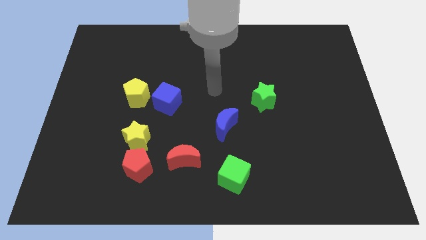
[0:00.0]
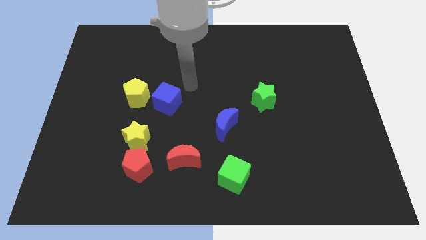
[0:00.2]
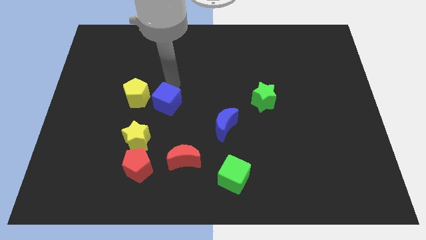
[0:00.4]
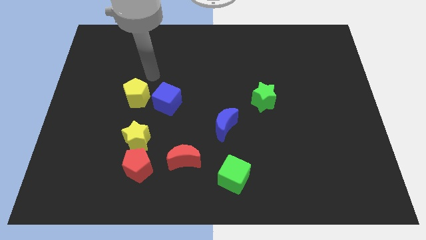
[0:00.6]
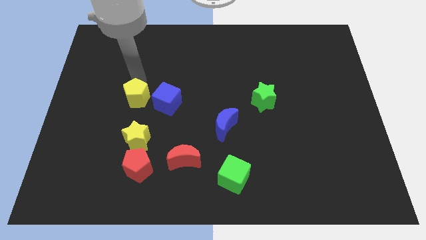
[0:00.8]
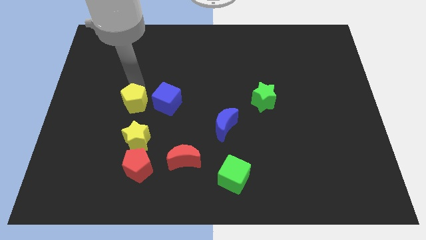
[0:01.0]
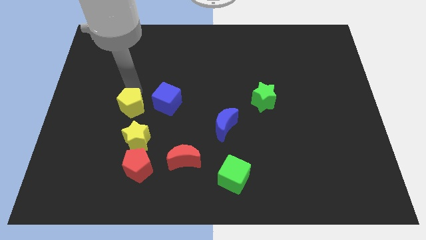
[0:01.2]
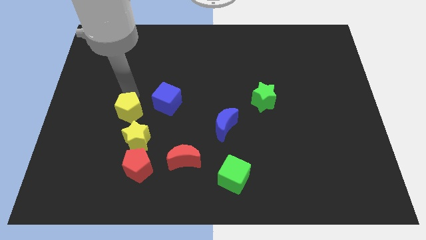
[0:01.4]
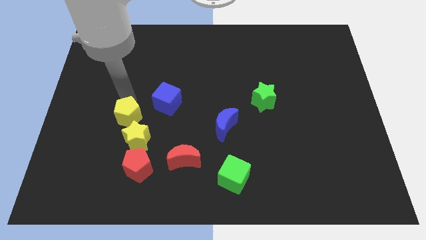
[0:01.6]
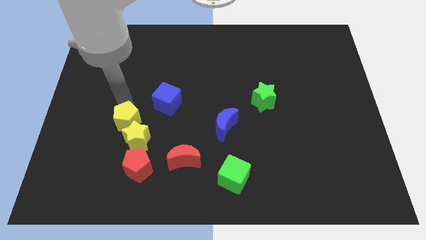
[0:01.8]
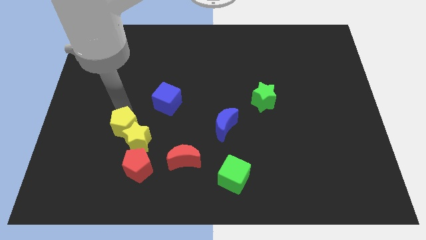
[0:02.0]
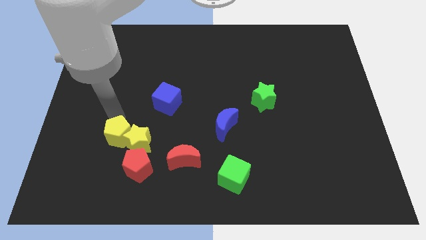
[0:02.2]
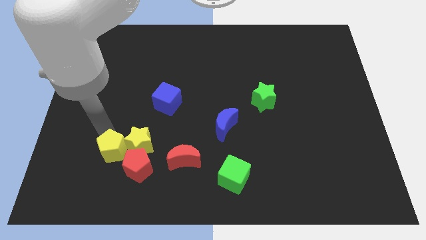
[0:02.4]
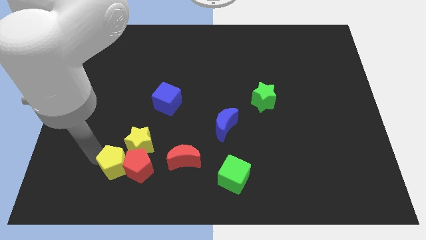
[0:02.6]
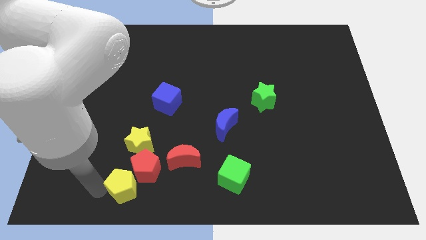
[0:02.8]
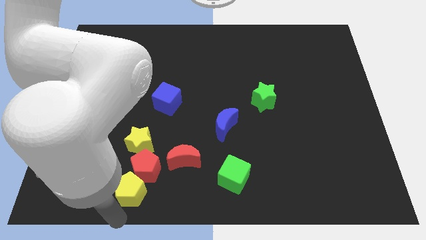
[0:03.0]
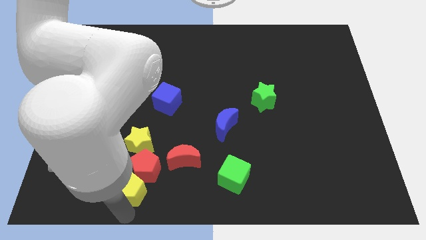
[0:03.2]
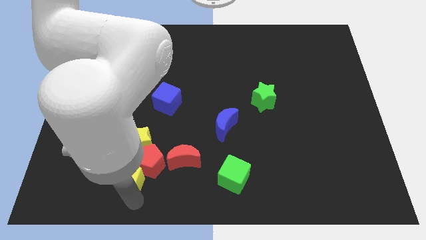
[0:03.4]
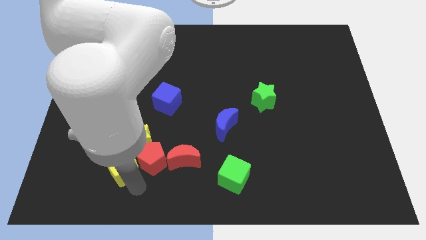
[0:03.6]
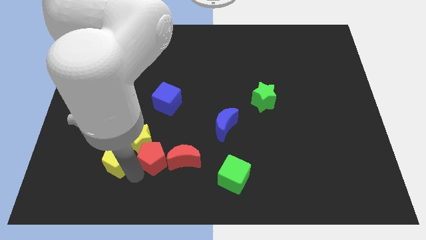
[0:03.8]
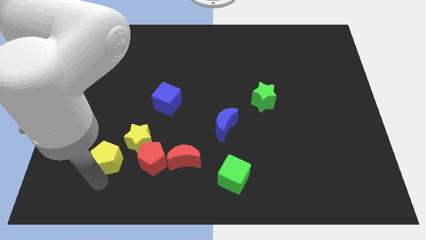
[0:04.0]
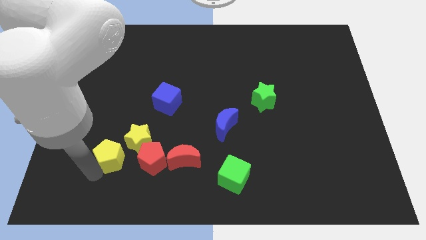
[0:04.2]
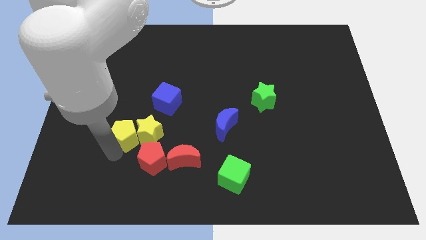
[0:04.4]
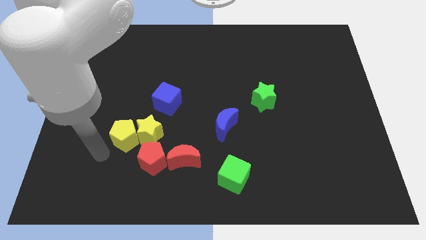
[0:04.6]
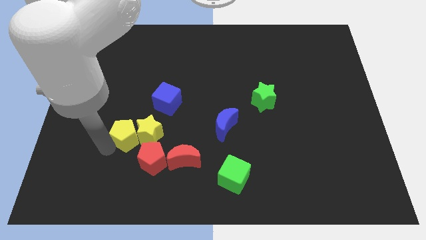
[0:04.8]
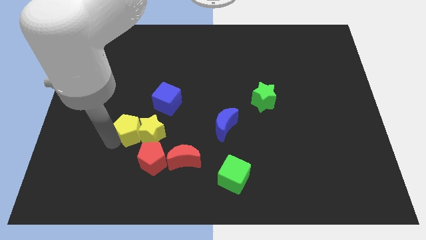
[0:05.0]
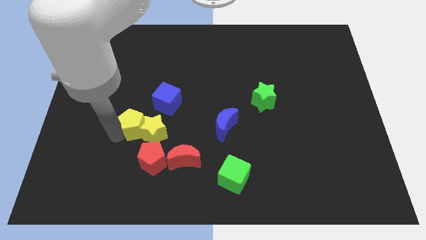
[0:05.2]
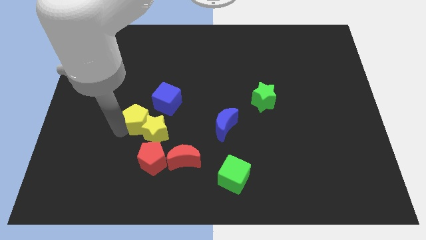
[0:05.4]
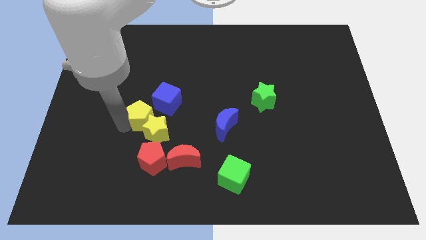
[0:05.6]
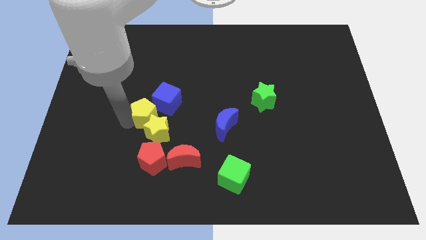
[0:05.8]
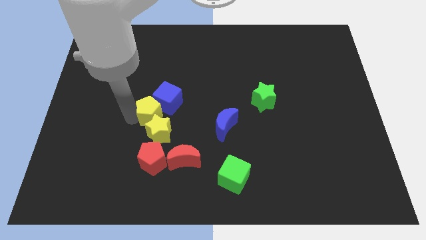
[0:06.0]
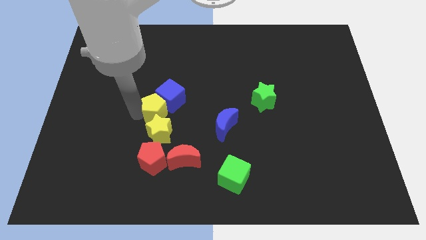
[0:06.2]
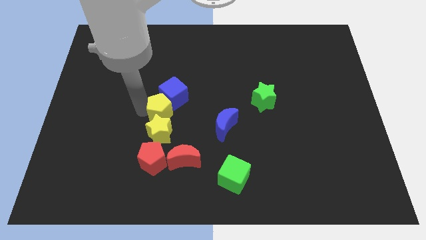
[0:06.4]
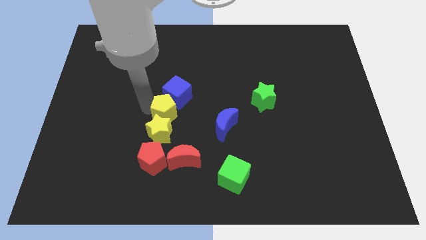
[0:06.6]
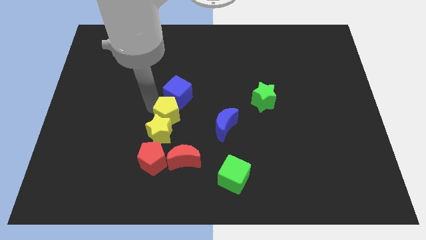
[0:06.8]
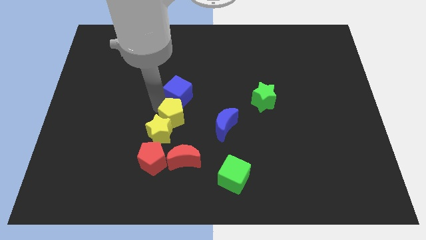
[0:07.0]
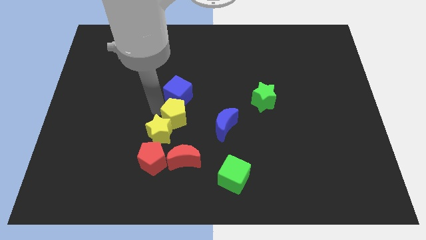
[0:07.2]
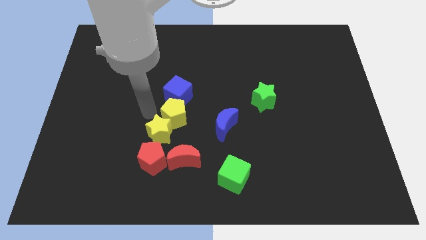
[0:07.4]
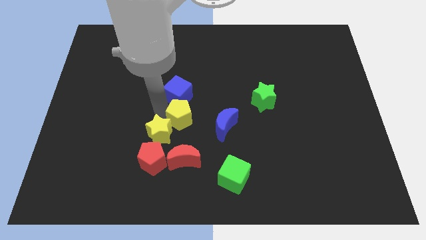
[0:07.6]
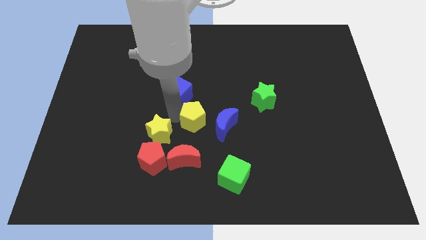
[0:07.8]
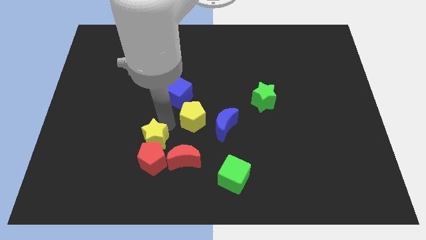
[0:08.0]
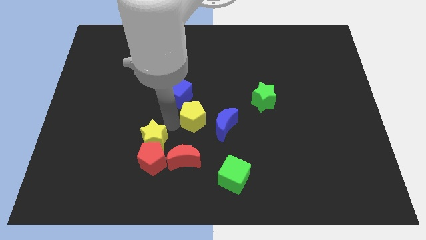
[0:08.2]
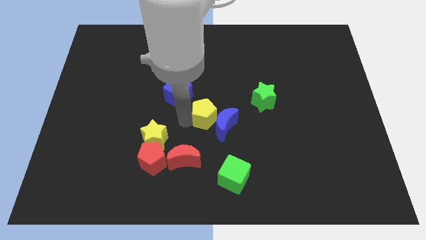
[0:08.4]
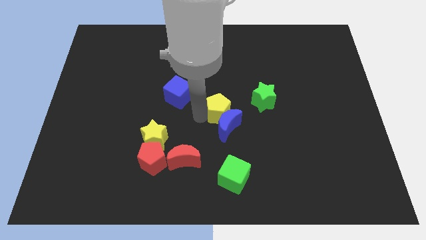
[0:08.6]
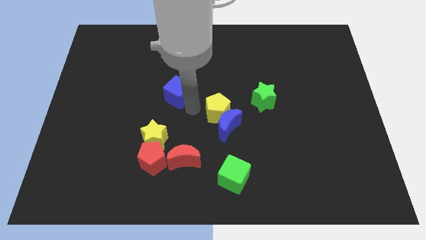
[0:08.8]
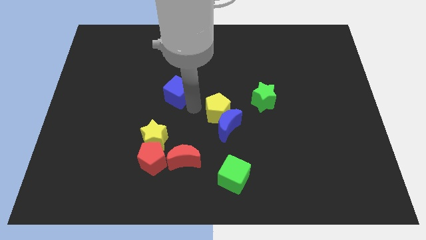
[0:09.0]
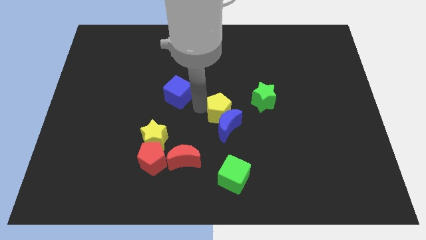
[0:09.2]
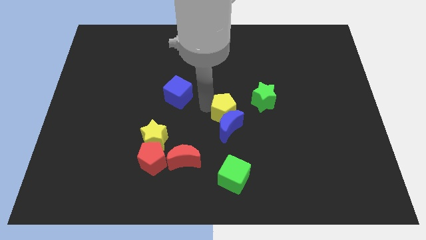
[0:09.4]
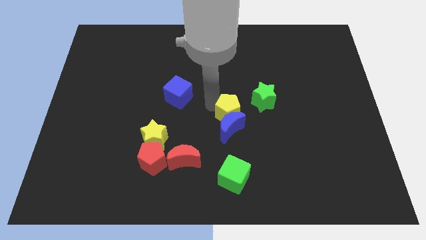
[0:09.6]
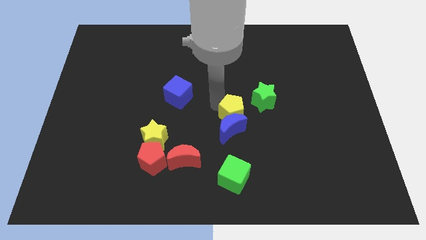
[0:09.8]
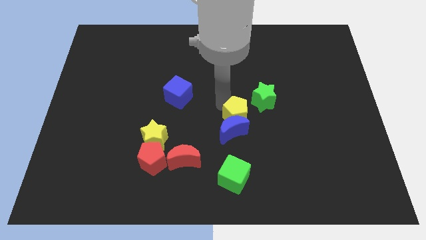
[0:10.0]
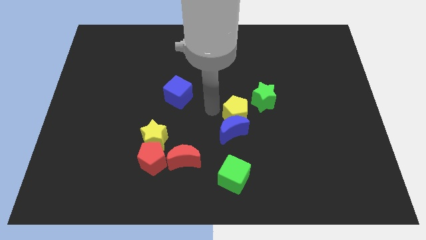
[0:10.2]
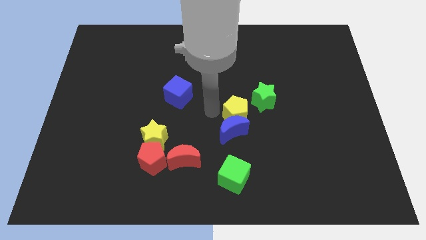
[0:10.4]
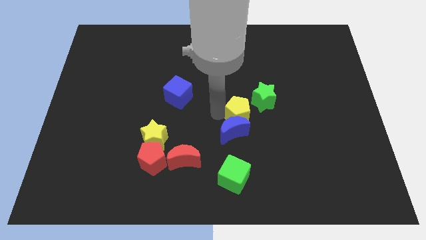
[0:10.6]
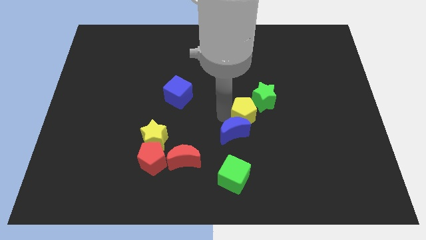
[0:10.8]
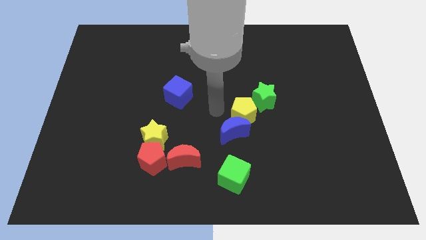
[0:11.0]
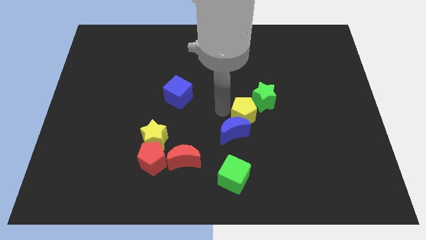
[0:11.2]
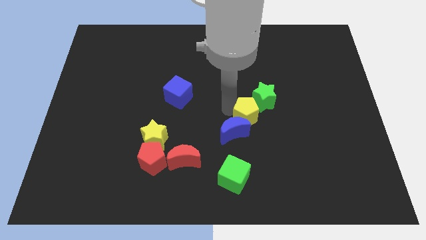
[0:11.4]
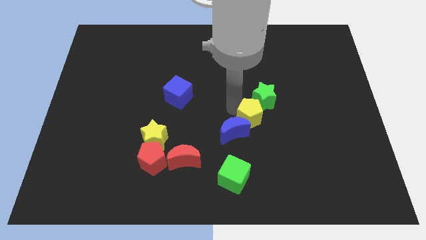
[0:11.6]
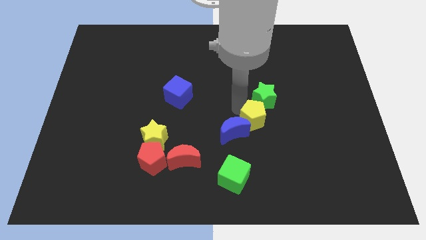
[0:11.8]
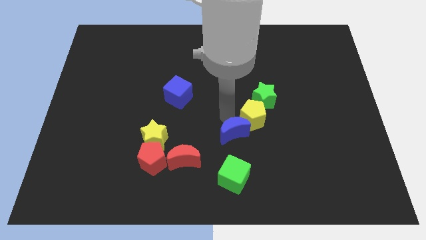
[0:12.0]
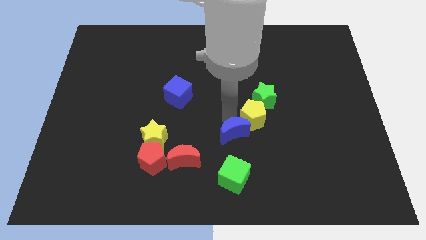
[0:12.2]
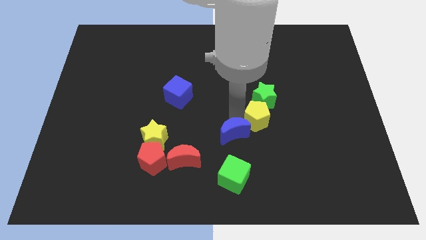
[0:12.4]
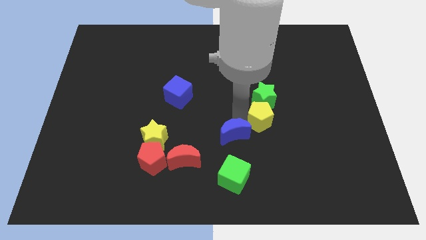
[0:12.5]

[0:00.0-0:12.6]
move the yellow pentagon to the bottom right of the green star

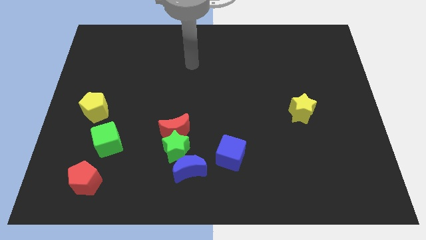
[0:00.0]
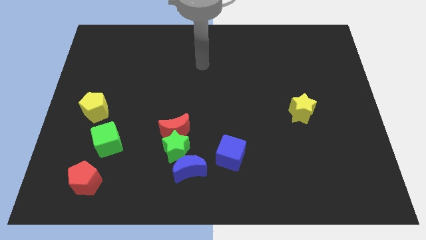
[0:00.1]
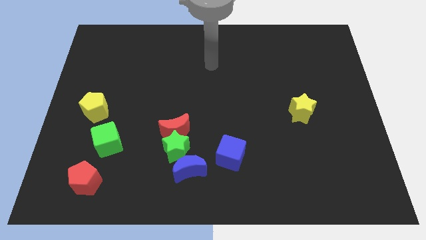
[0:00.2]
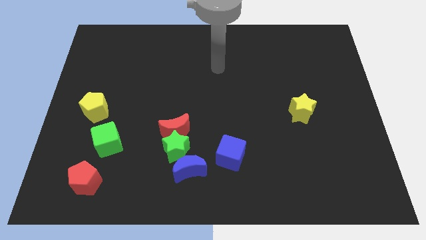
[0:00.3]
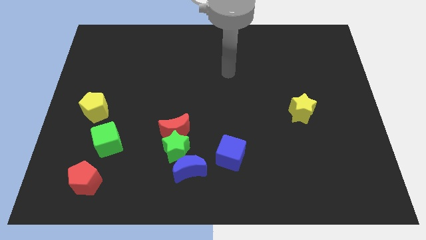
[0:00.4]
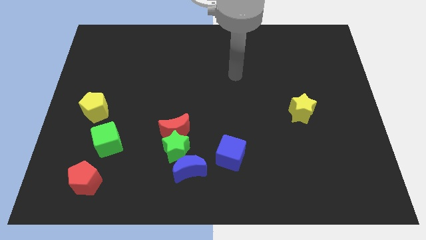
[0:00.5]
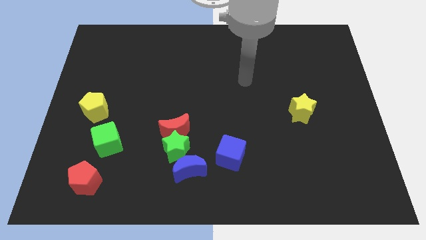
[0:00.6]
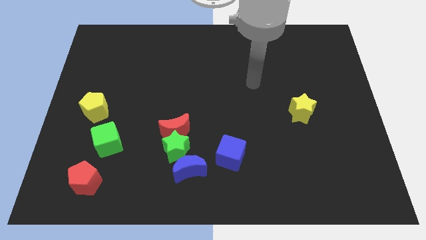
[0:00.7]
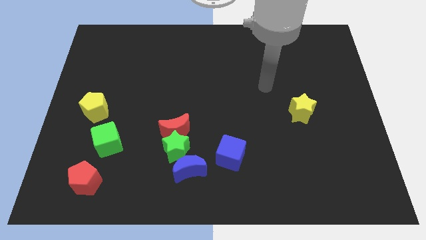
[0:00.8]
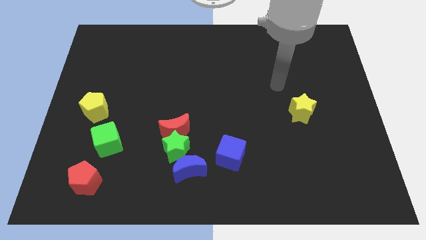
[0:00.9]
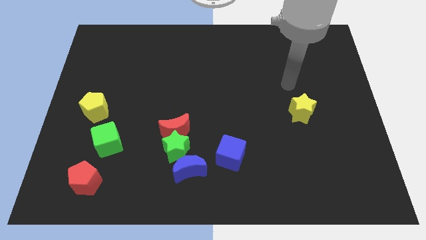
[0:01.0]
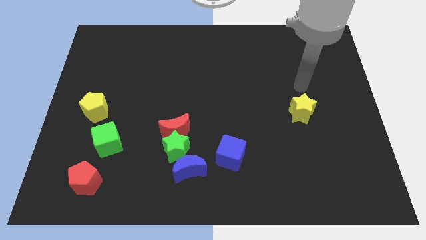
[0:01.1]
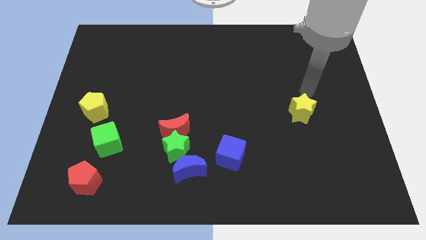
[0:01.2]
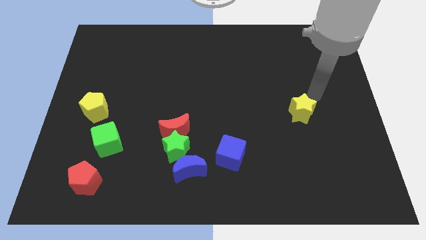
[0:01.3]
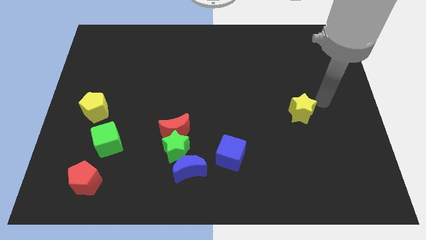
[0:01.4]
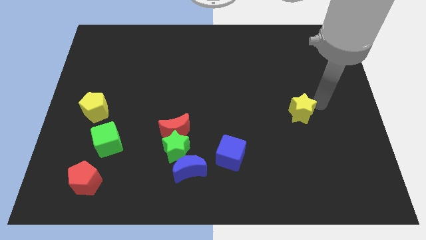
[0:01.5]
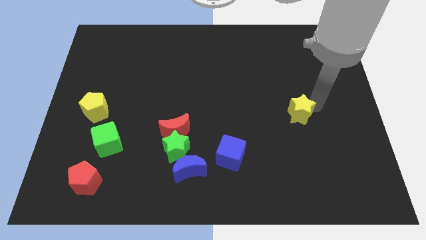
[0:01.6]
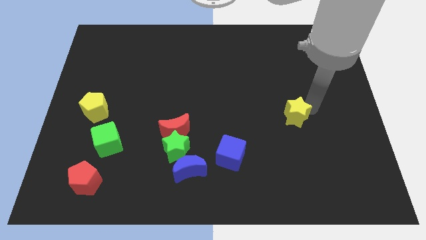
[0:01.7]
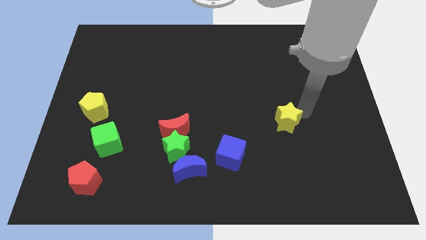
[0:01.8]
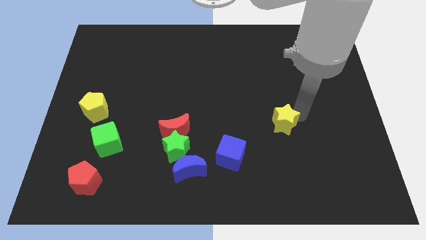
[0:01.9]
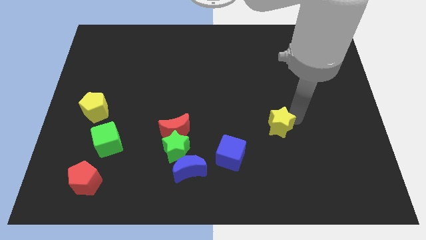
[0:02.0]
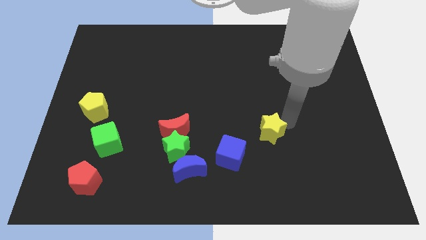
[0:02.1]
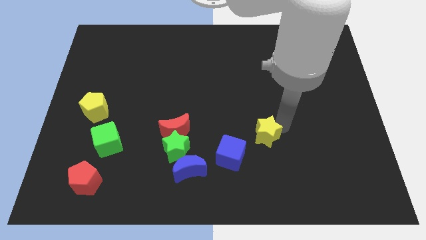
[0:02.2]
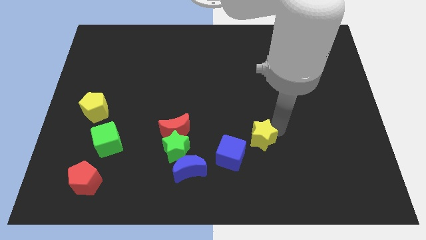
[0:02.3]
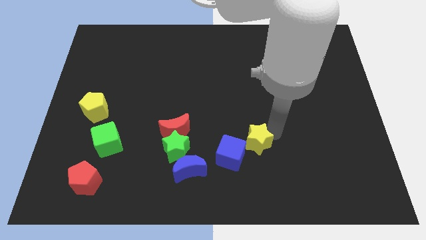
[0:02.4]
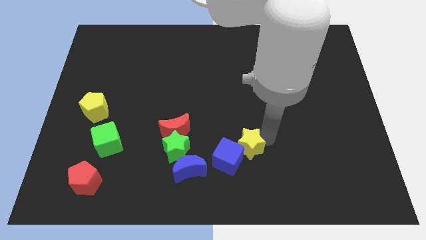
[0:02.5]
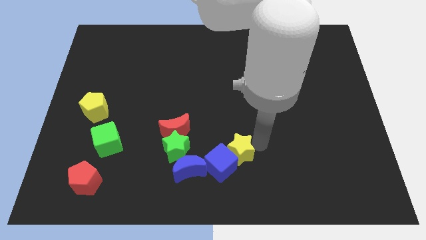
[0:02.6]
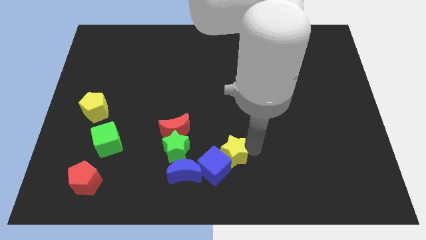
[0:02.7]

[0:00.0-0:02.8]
put the yellow star diagonally up and to the right of the blue moon

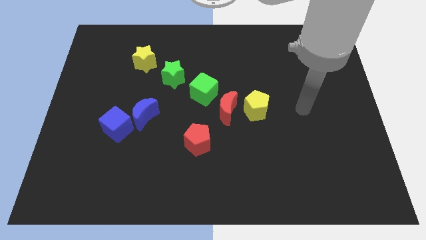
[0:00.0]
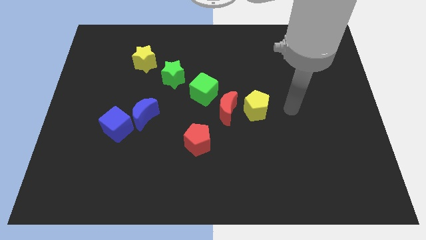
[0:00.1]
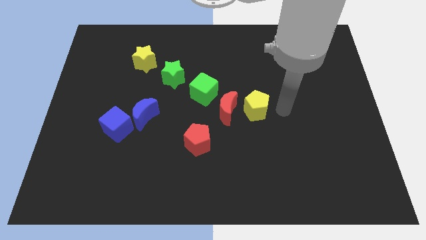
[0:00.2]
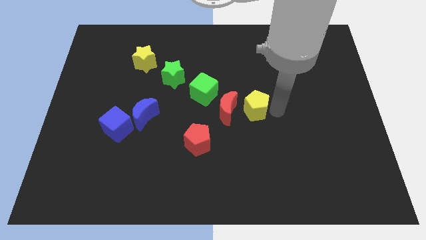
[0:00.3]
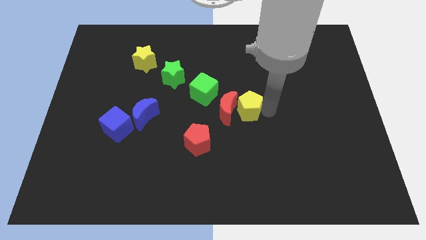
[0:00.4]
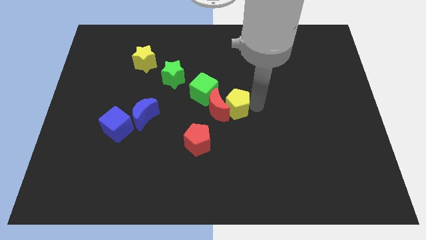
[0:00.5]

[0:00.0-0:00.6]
slide the red moon to the bottom side of the green cube
